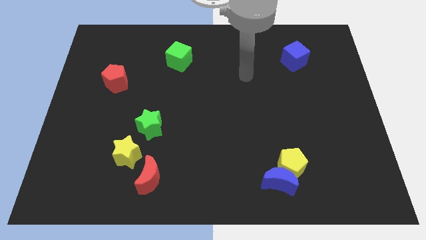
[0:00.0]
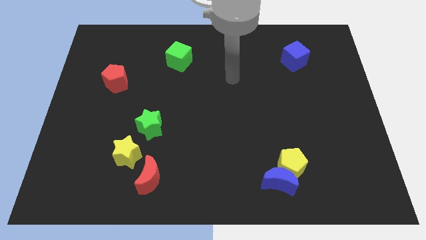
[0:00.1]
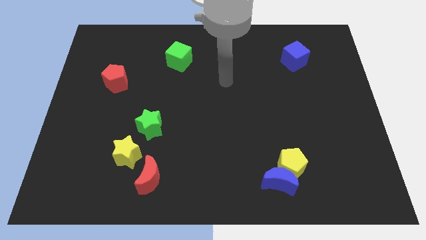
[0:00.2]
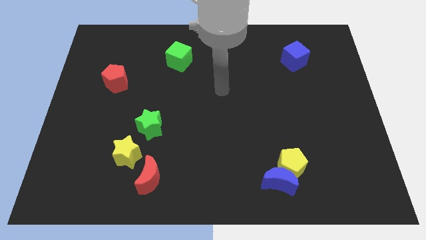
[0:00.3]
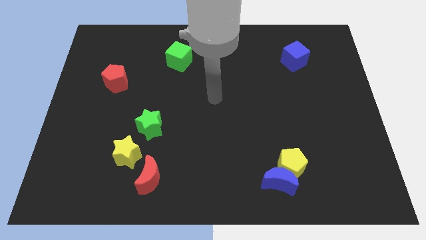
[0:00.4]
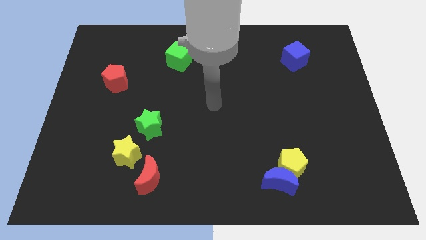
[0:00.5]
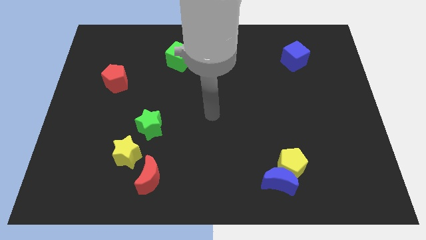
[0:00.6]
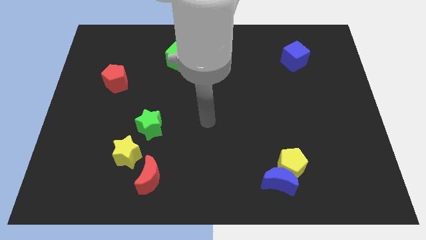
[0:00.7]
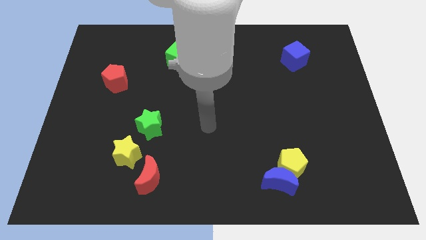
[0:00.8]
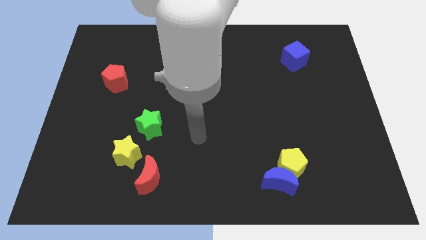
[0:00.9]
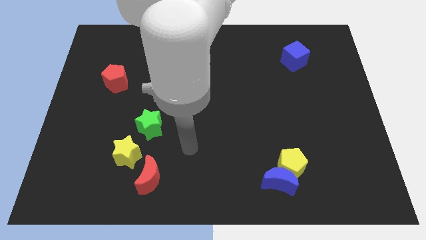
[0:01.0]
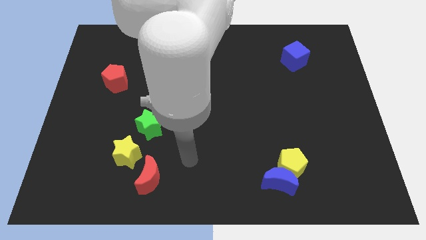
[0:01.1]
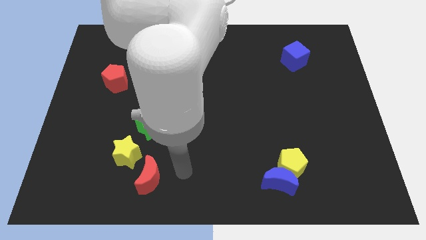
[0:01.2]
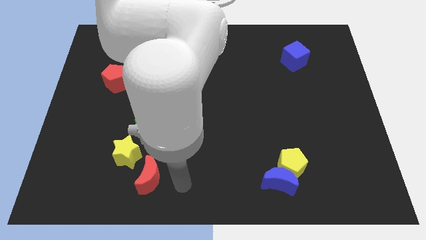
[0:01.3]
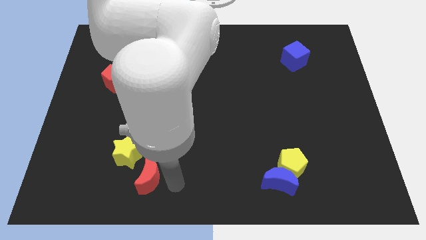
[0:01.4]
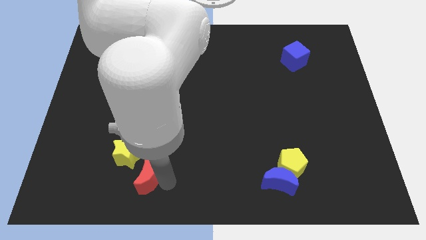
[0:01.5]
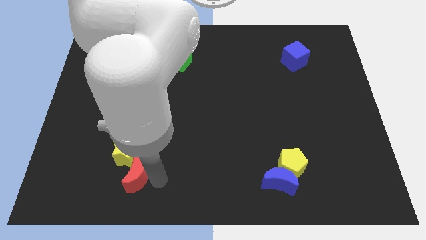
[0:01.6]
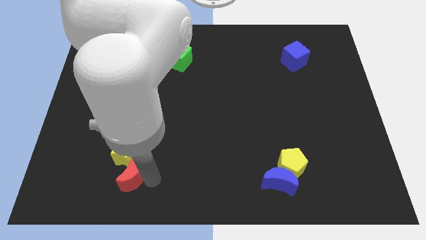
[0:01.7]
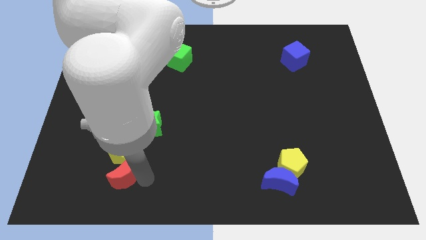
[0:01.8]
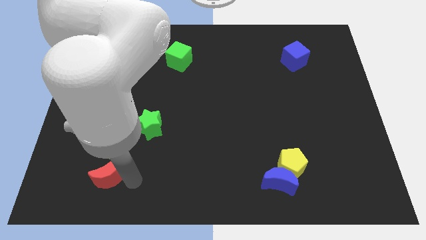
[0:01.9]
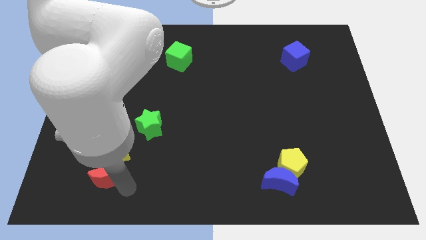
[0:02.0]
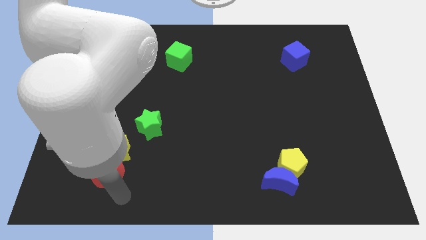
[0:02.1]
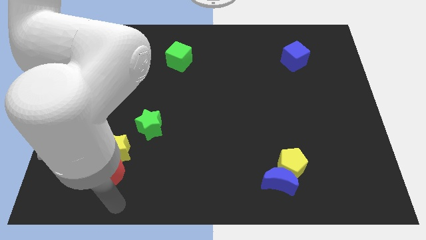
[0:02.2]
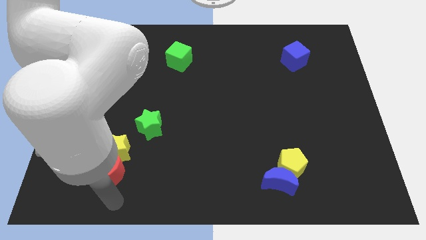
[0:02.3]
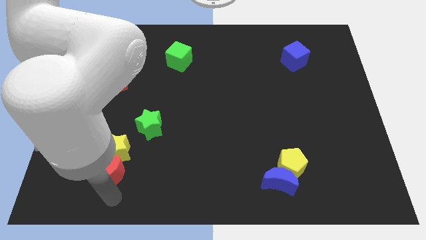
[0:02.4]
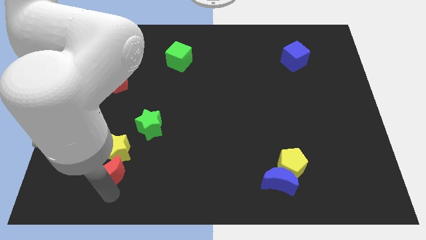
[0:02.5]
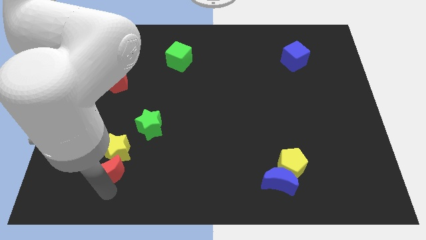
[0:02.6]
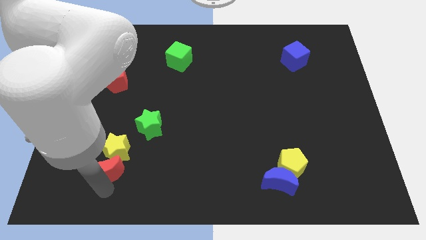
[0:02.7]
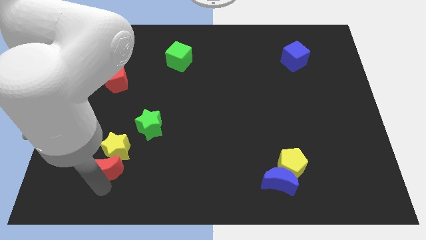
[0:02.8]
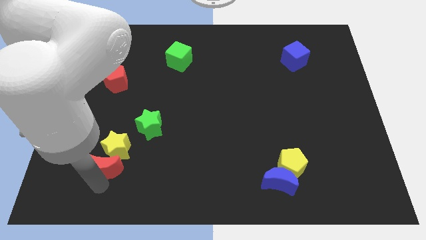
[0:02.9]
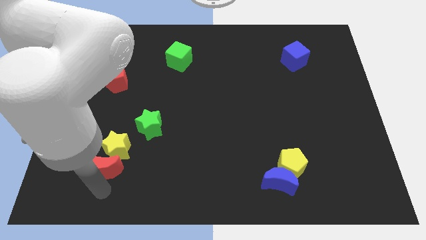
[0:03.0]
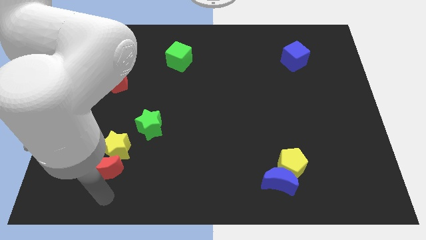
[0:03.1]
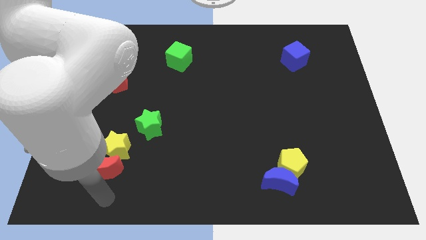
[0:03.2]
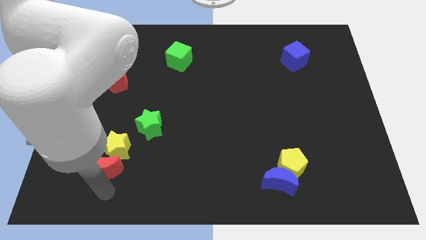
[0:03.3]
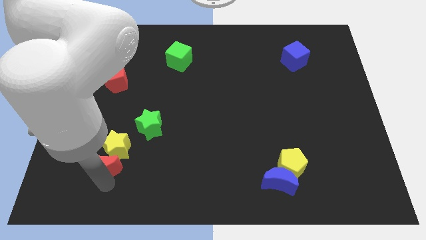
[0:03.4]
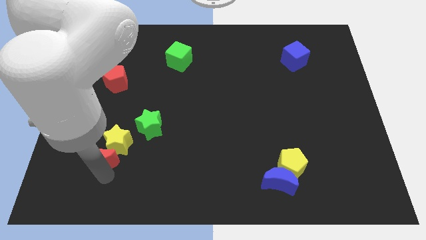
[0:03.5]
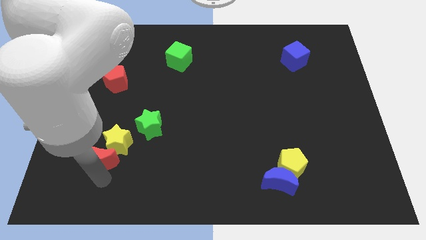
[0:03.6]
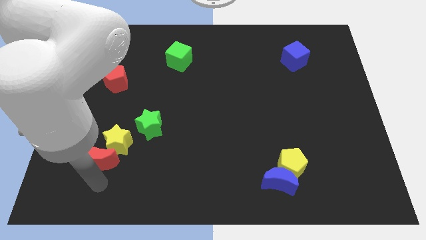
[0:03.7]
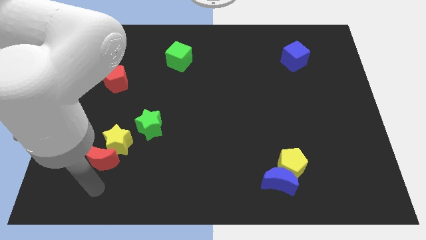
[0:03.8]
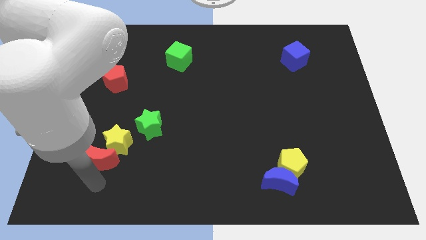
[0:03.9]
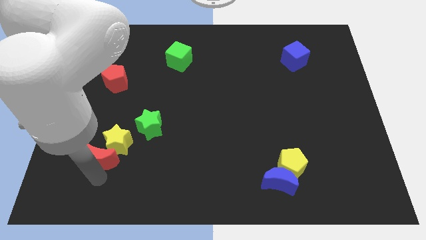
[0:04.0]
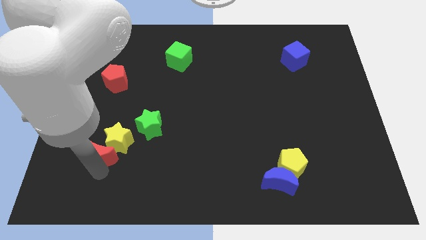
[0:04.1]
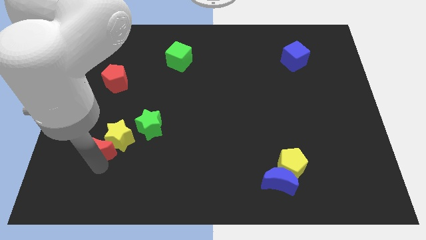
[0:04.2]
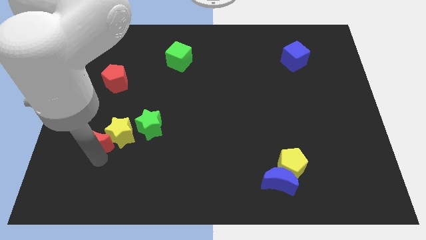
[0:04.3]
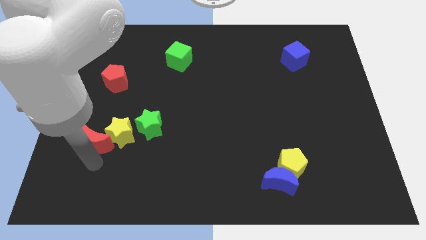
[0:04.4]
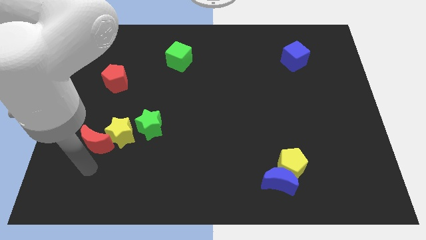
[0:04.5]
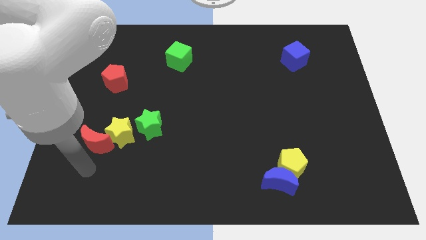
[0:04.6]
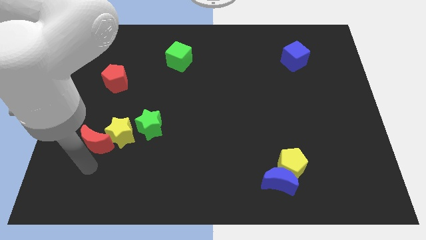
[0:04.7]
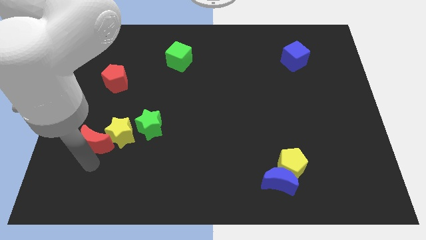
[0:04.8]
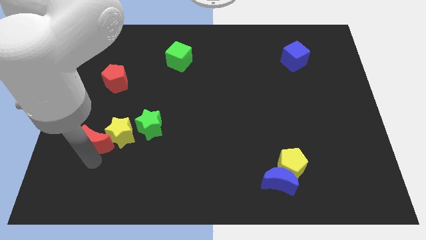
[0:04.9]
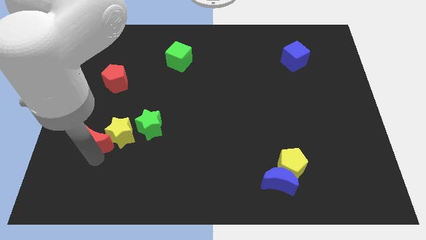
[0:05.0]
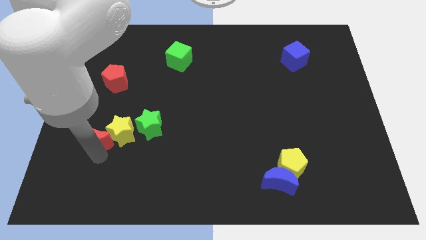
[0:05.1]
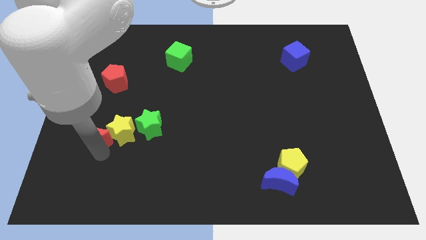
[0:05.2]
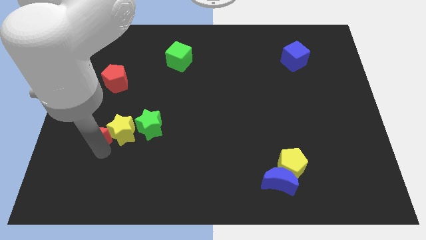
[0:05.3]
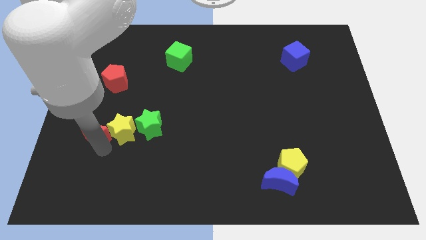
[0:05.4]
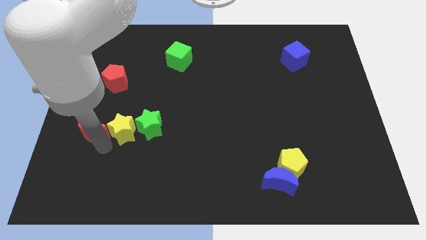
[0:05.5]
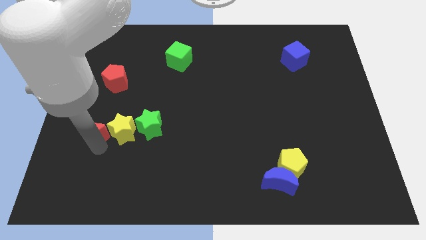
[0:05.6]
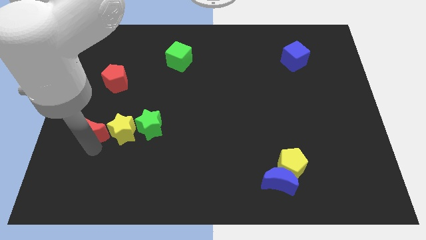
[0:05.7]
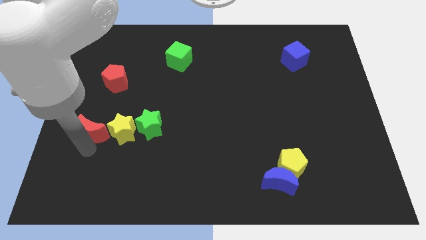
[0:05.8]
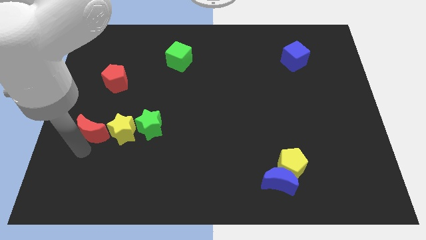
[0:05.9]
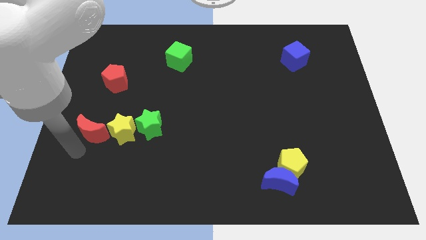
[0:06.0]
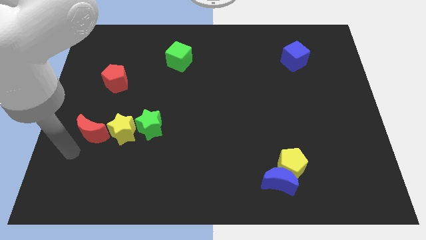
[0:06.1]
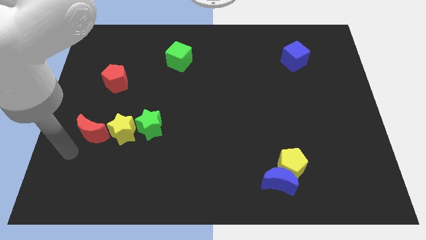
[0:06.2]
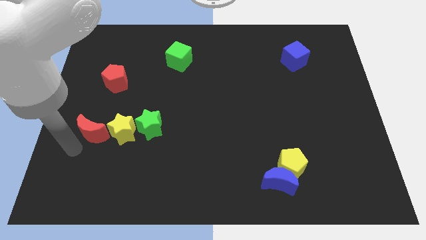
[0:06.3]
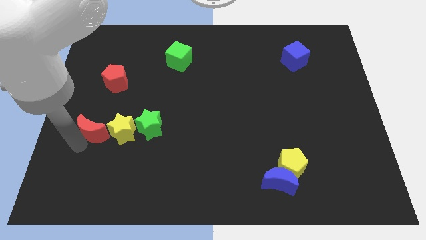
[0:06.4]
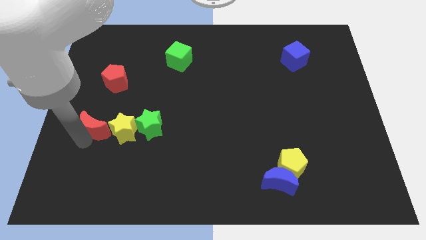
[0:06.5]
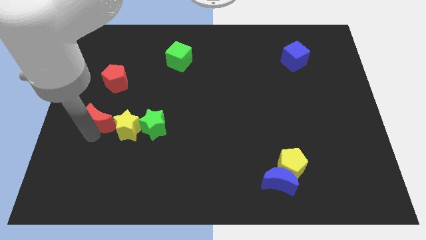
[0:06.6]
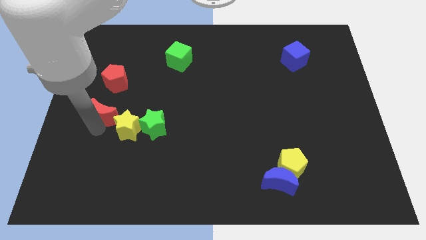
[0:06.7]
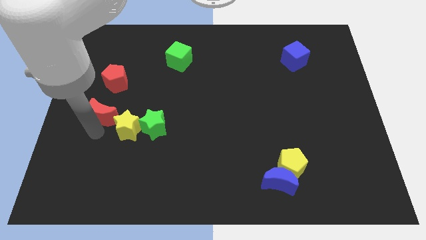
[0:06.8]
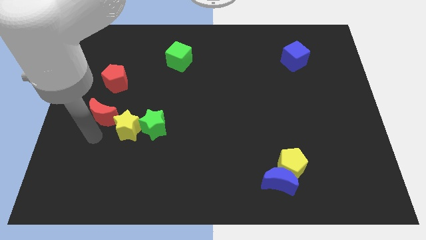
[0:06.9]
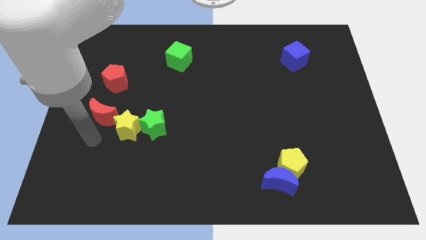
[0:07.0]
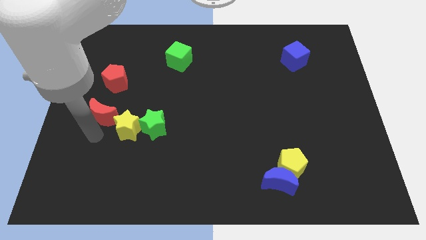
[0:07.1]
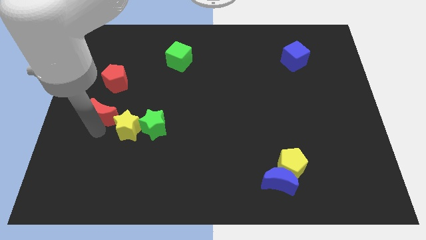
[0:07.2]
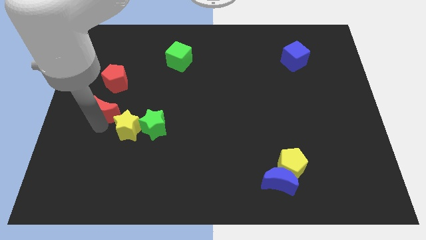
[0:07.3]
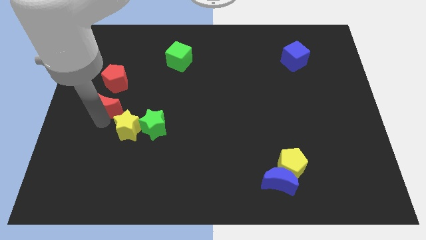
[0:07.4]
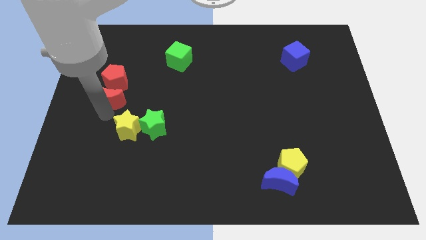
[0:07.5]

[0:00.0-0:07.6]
push the red moon towards the red pentagon

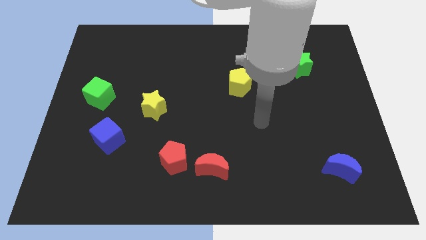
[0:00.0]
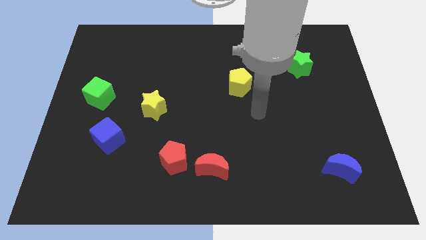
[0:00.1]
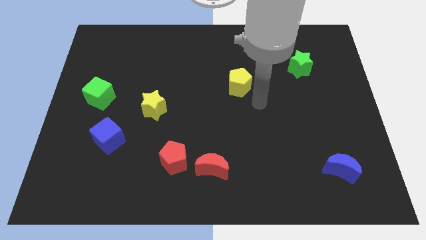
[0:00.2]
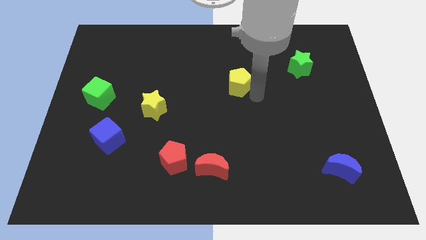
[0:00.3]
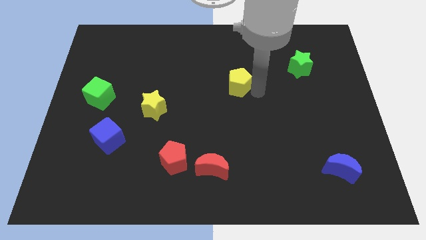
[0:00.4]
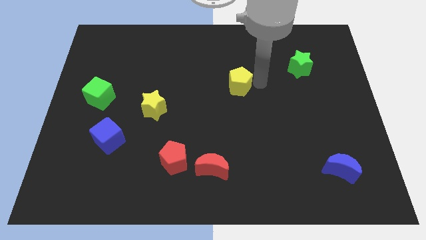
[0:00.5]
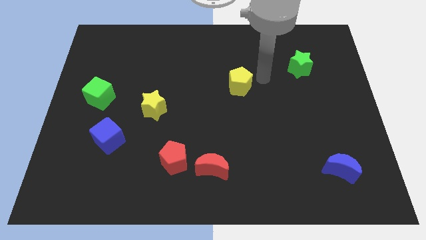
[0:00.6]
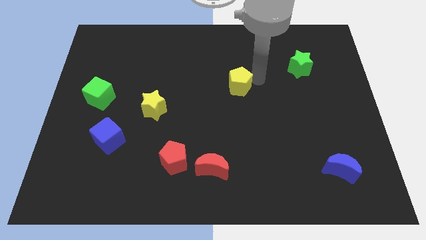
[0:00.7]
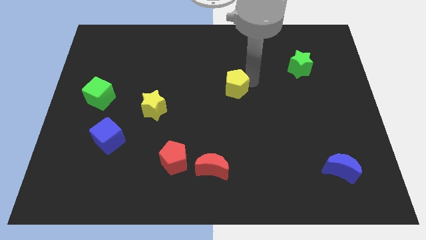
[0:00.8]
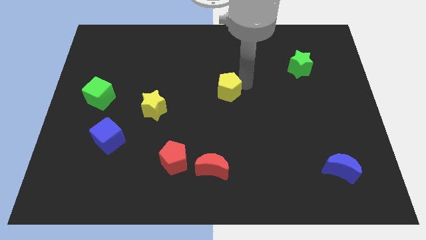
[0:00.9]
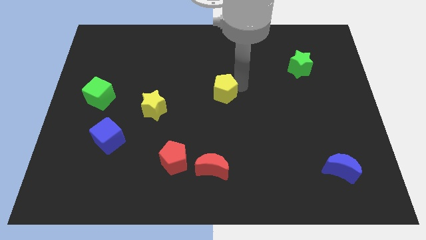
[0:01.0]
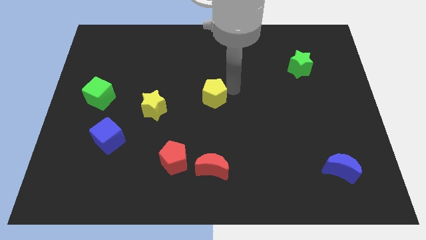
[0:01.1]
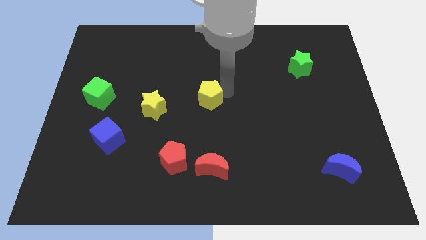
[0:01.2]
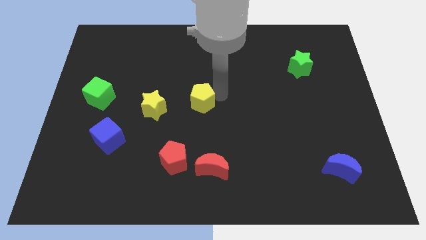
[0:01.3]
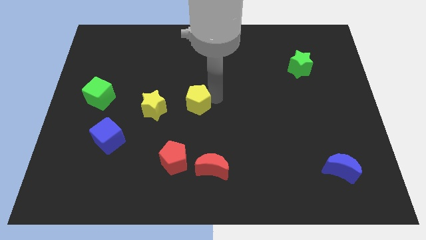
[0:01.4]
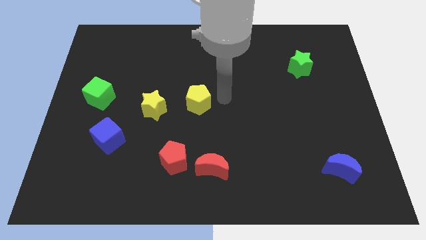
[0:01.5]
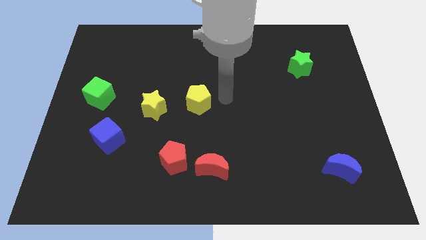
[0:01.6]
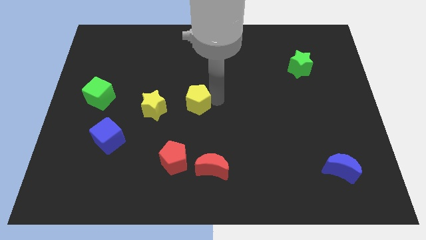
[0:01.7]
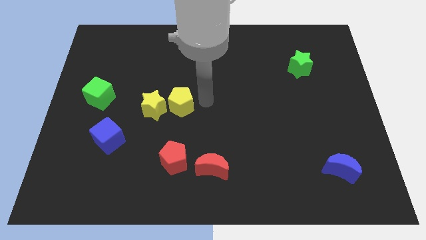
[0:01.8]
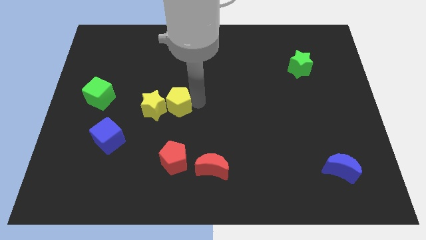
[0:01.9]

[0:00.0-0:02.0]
slide the yellow pentagon next to the yellow star
